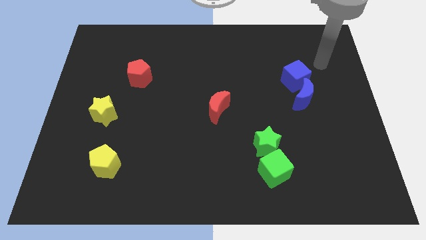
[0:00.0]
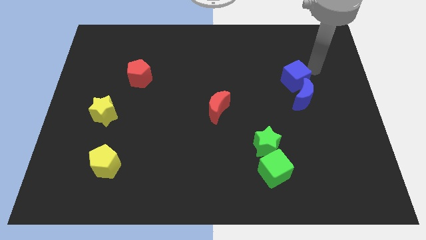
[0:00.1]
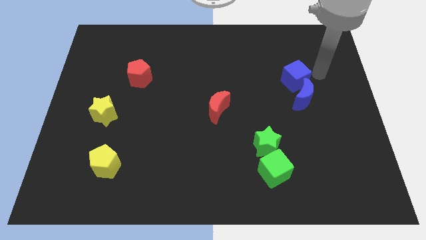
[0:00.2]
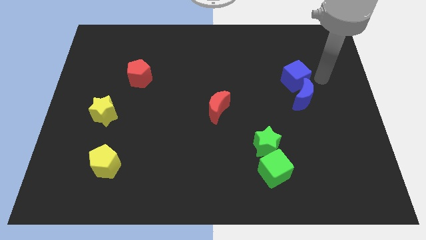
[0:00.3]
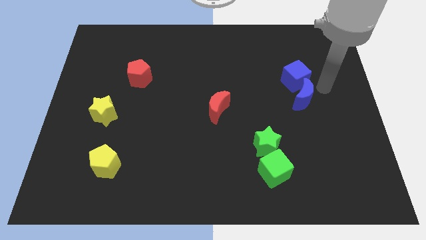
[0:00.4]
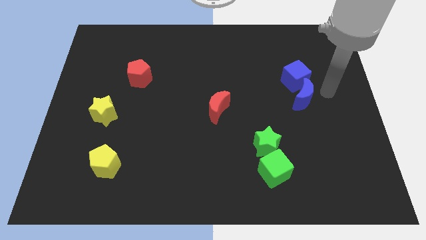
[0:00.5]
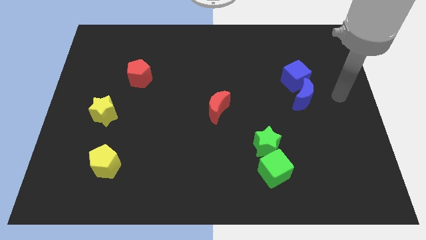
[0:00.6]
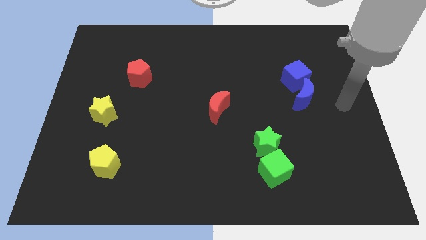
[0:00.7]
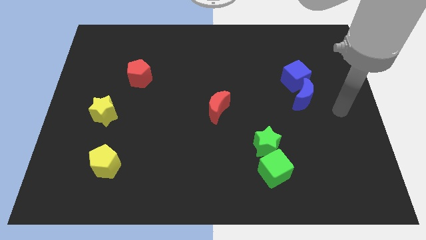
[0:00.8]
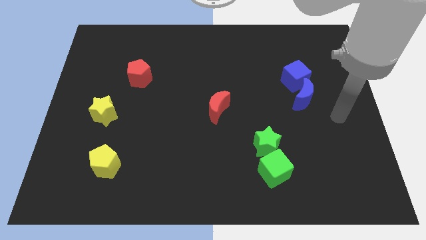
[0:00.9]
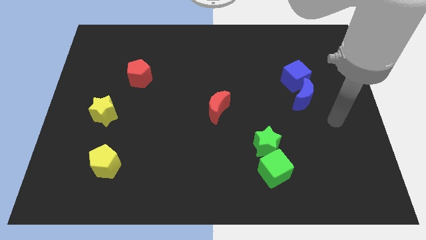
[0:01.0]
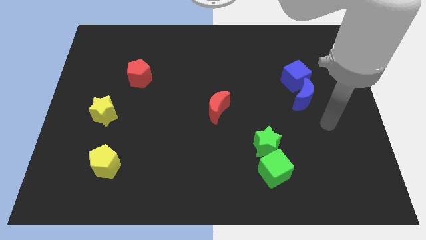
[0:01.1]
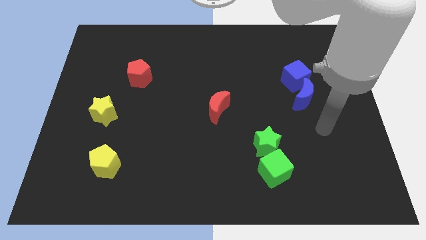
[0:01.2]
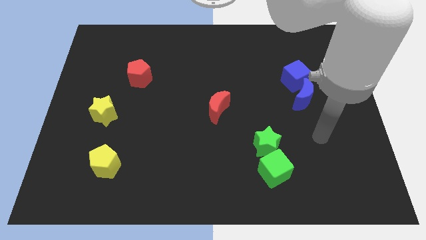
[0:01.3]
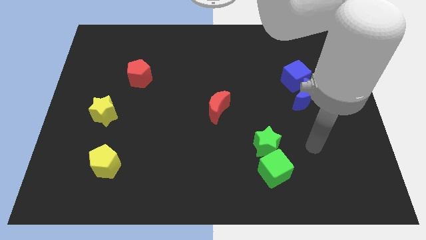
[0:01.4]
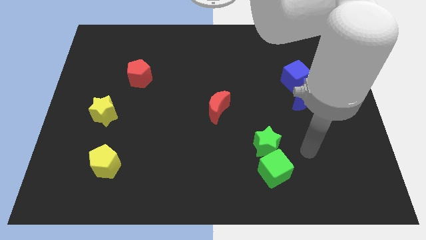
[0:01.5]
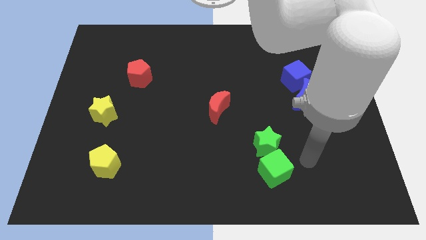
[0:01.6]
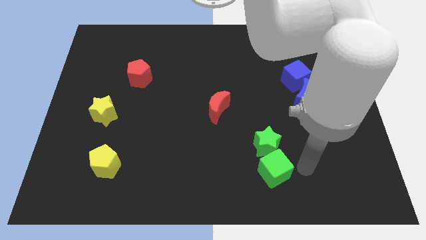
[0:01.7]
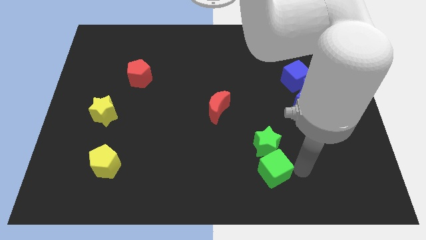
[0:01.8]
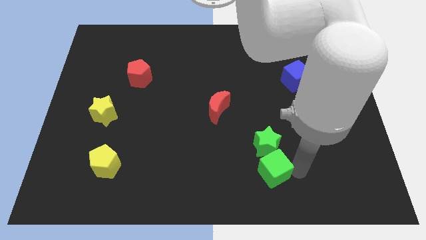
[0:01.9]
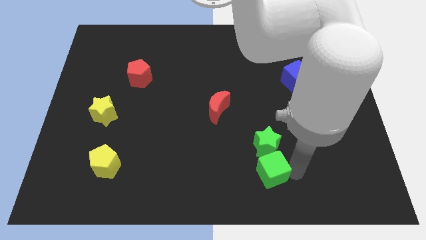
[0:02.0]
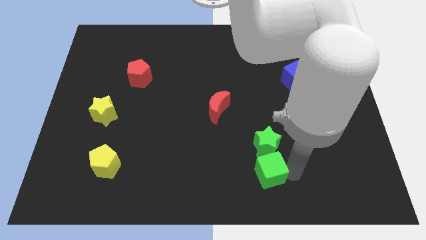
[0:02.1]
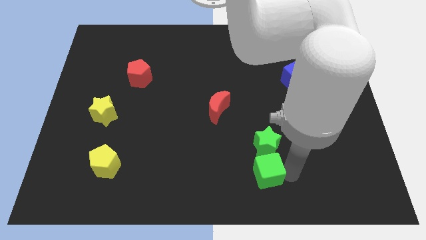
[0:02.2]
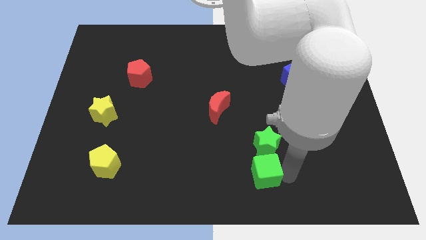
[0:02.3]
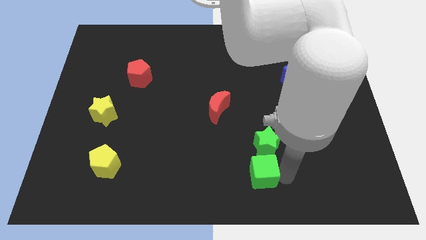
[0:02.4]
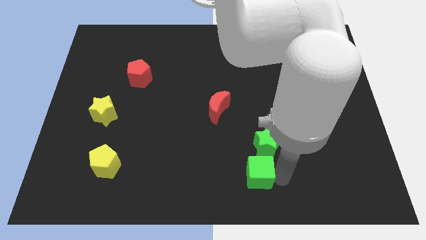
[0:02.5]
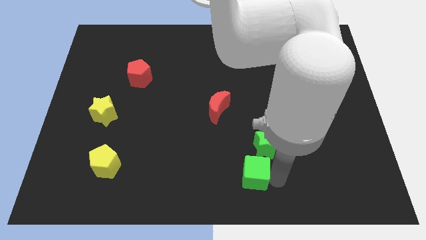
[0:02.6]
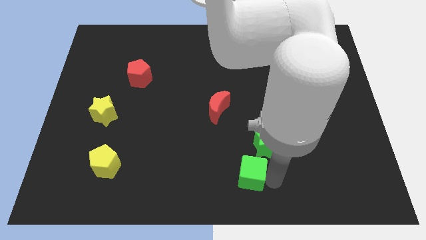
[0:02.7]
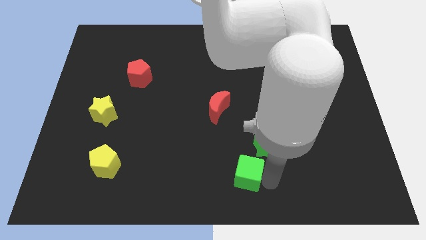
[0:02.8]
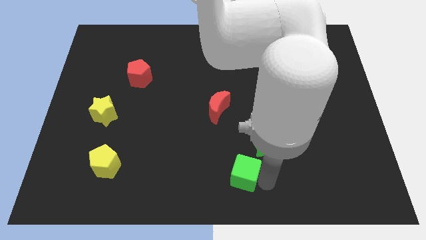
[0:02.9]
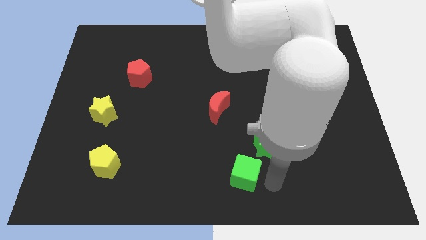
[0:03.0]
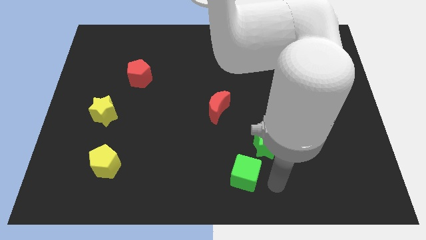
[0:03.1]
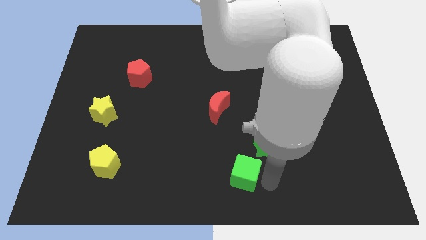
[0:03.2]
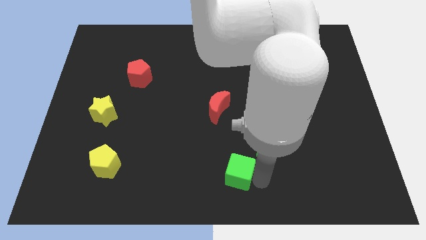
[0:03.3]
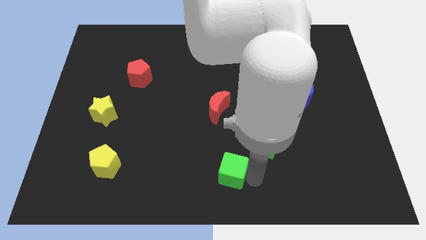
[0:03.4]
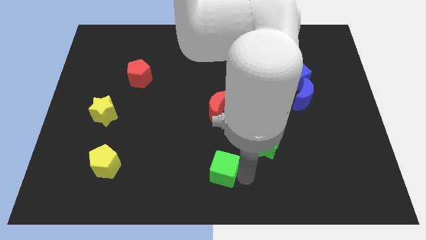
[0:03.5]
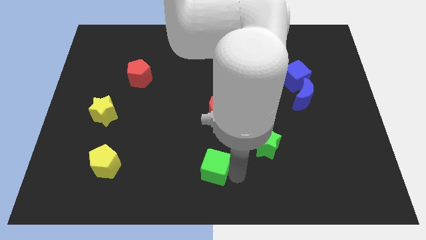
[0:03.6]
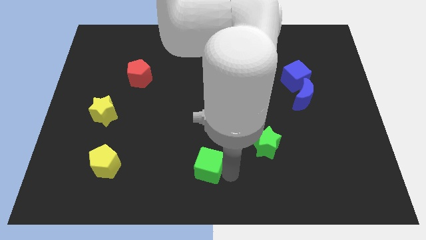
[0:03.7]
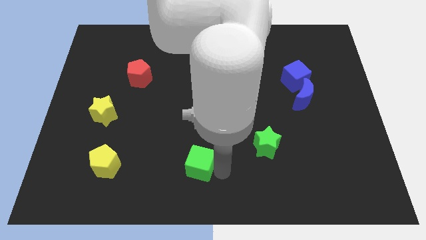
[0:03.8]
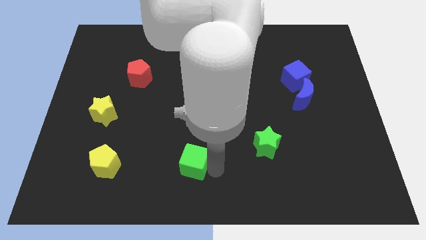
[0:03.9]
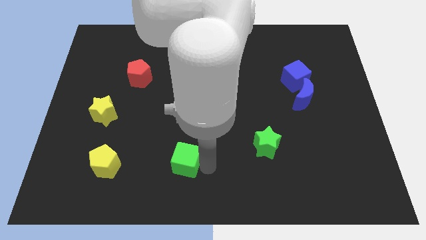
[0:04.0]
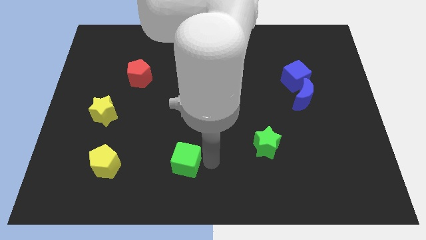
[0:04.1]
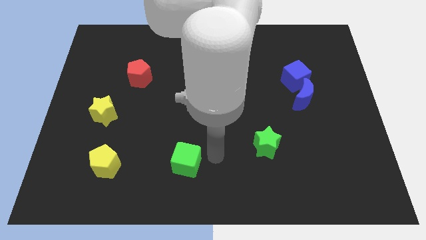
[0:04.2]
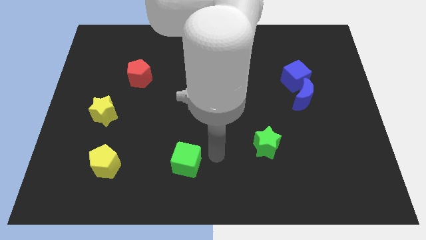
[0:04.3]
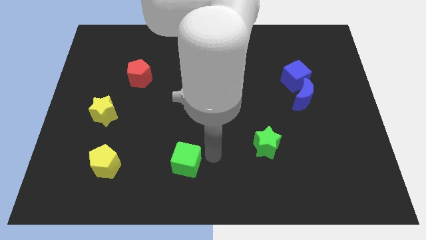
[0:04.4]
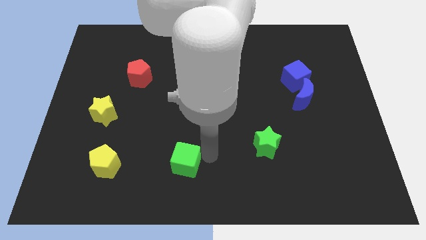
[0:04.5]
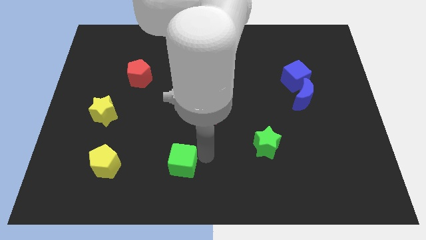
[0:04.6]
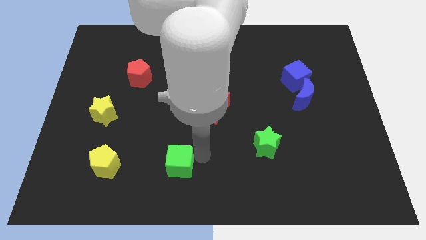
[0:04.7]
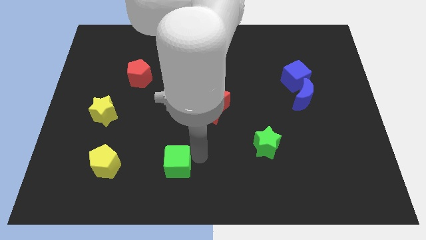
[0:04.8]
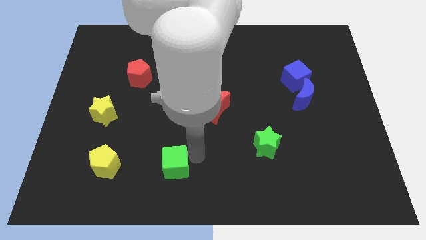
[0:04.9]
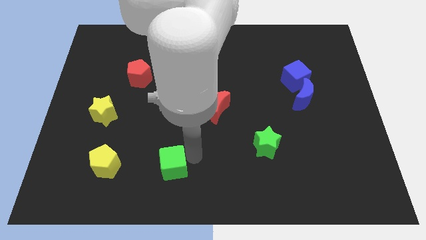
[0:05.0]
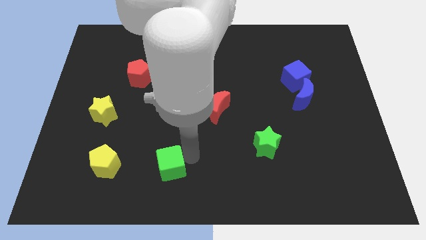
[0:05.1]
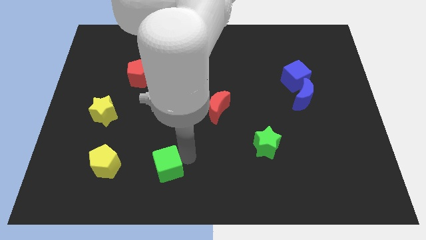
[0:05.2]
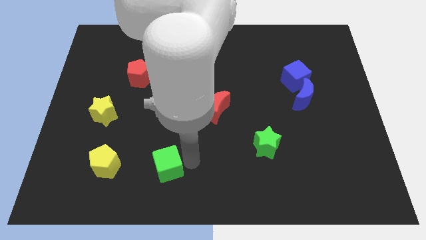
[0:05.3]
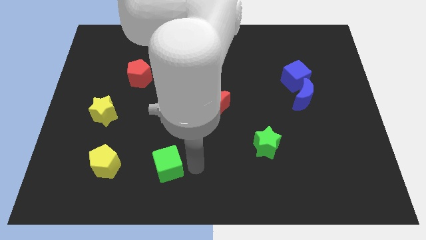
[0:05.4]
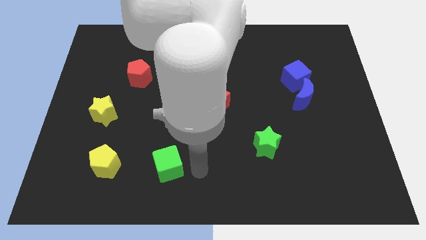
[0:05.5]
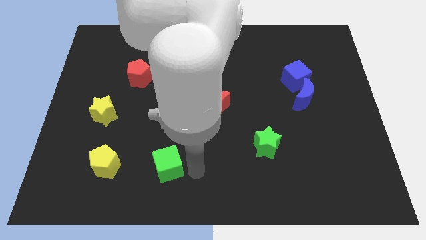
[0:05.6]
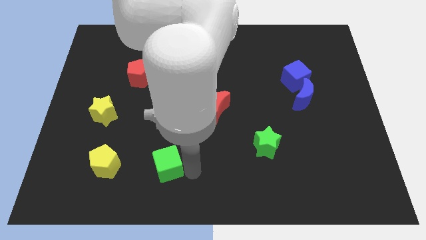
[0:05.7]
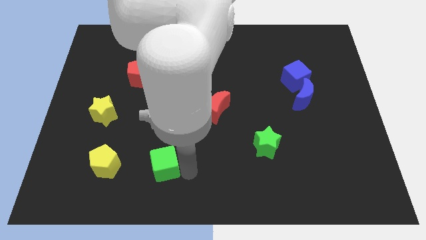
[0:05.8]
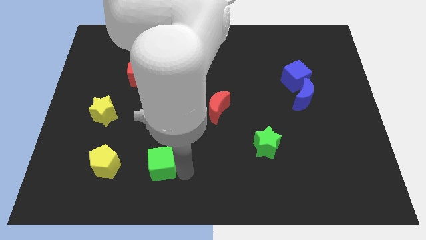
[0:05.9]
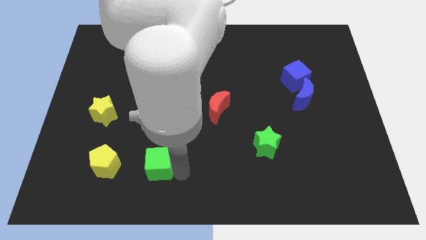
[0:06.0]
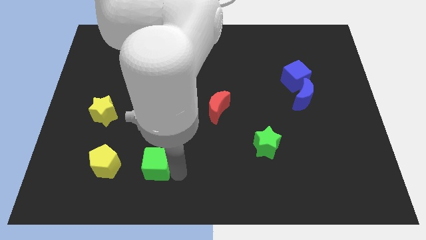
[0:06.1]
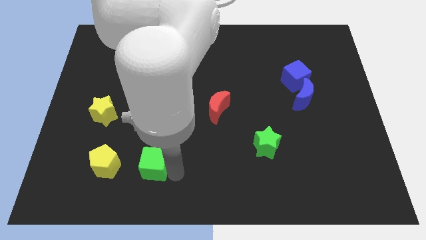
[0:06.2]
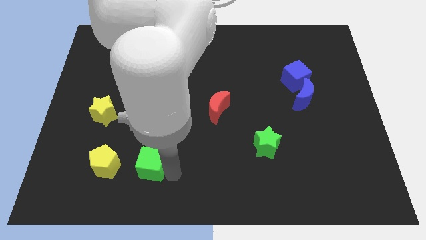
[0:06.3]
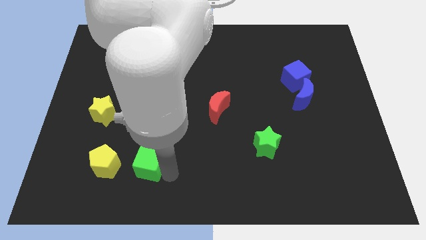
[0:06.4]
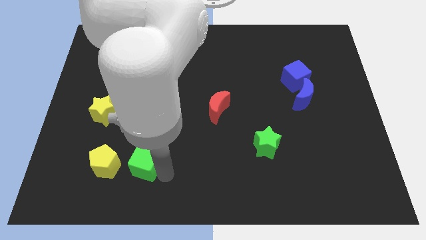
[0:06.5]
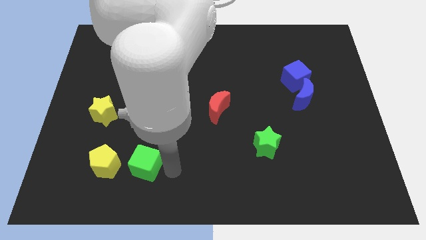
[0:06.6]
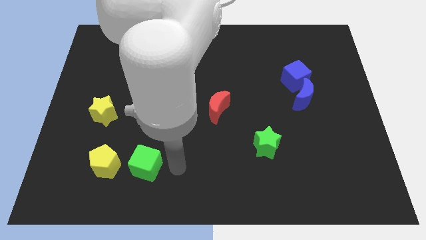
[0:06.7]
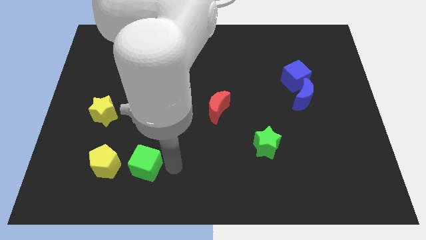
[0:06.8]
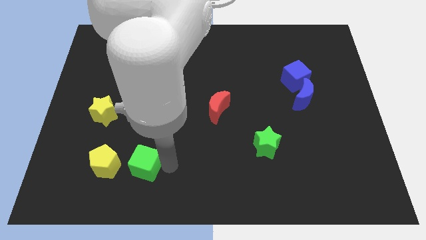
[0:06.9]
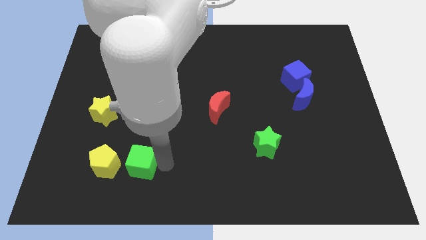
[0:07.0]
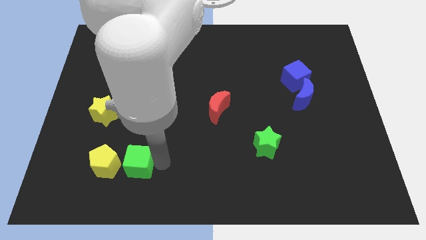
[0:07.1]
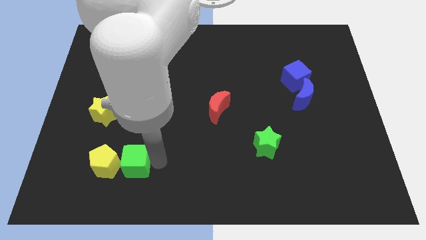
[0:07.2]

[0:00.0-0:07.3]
move the green cube towards the yellow pentagon
